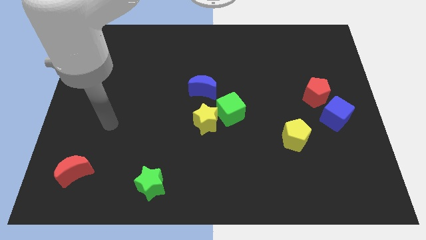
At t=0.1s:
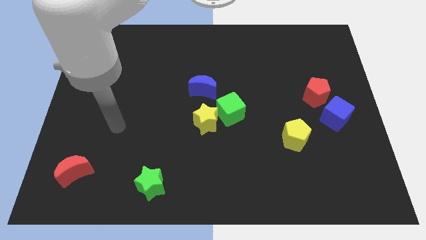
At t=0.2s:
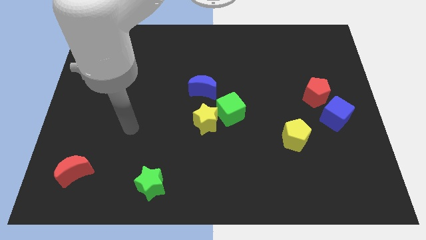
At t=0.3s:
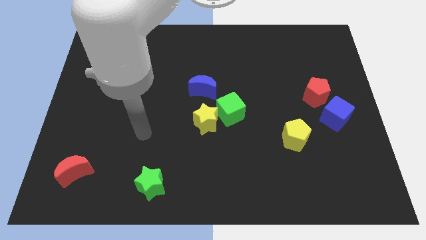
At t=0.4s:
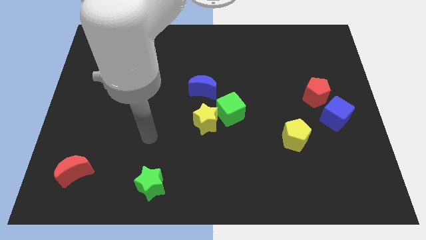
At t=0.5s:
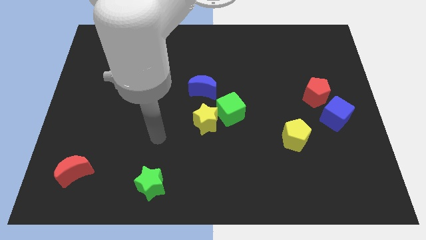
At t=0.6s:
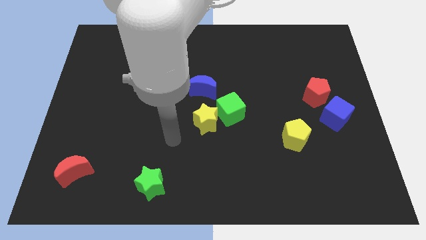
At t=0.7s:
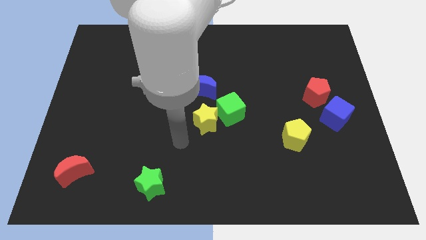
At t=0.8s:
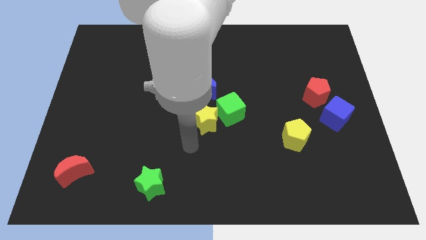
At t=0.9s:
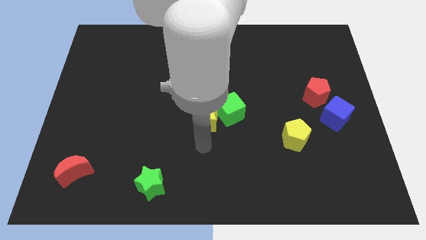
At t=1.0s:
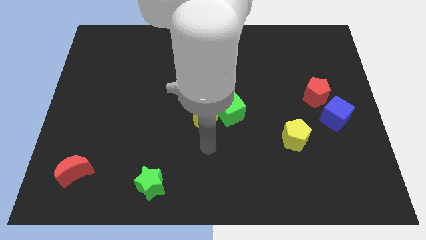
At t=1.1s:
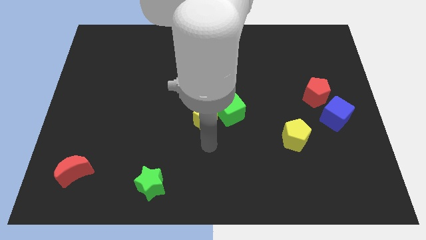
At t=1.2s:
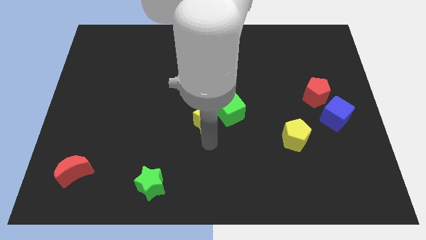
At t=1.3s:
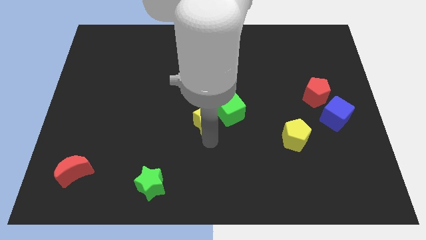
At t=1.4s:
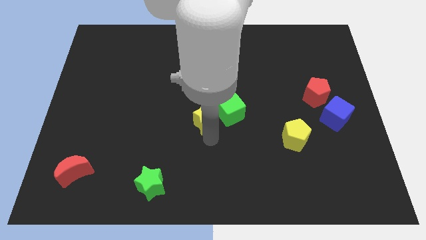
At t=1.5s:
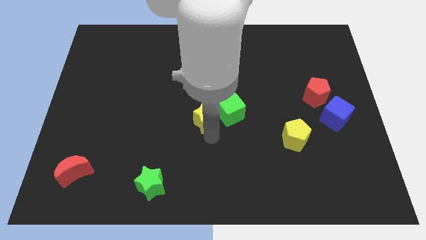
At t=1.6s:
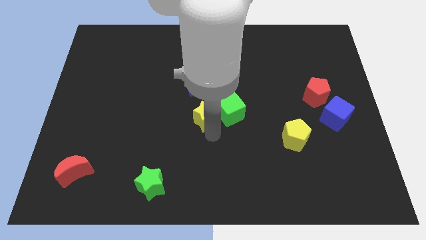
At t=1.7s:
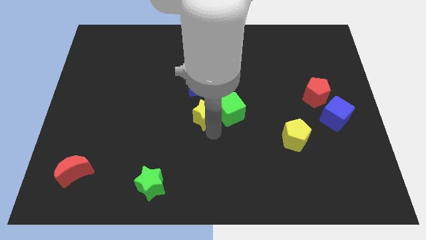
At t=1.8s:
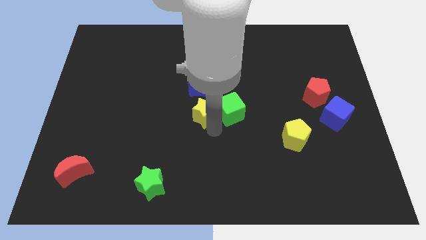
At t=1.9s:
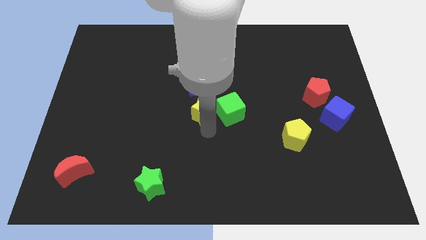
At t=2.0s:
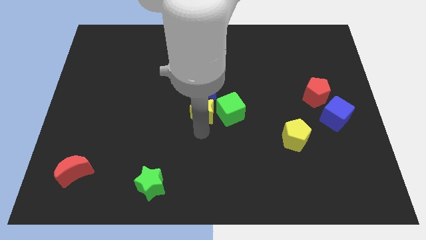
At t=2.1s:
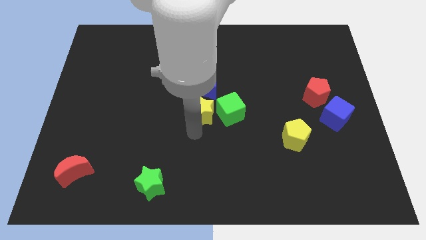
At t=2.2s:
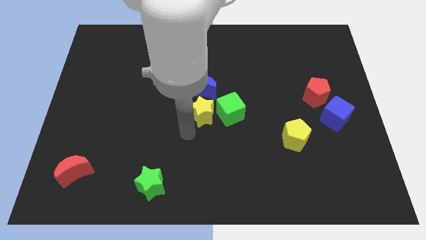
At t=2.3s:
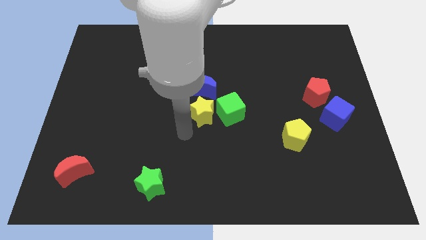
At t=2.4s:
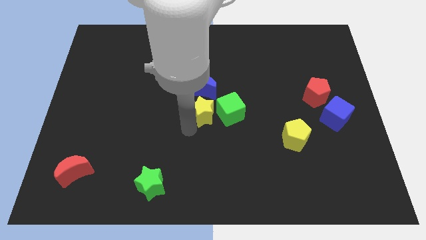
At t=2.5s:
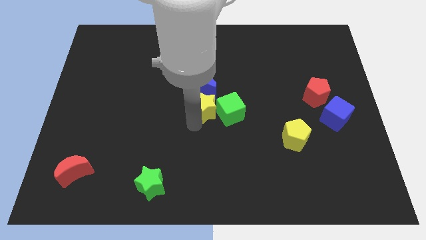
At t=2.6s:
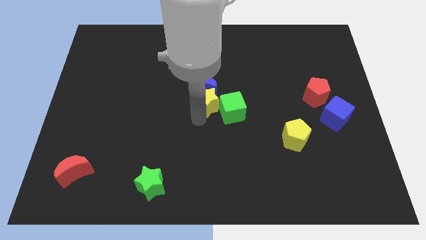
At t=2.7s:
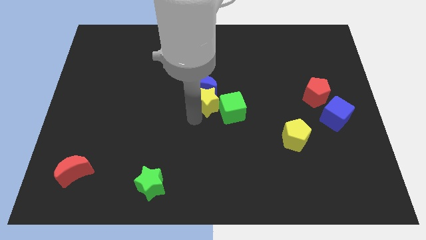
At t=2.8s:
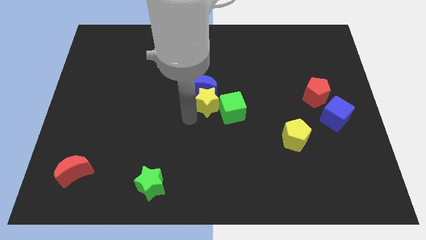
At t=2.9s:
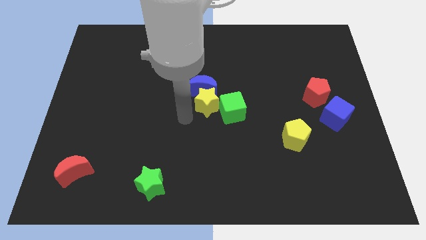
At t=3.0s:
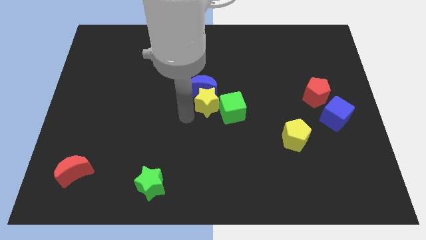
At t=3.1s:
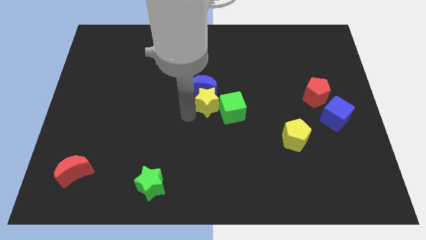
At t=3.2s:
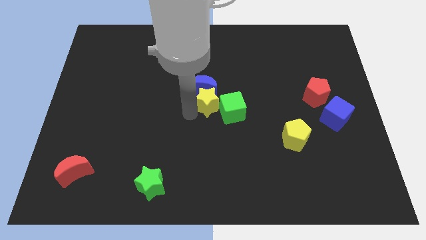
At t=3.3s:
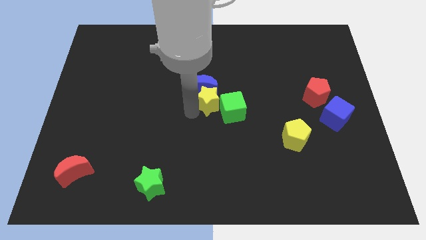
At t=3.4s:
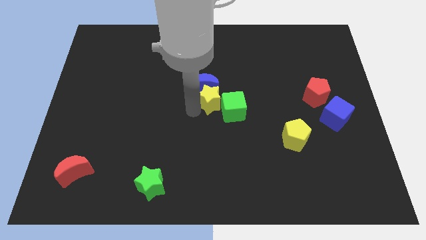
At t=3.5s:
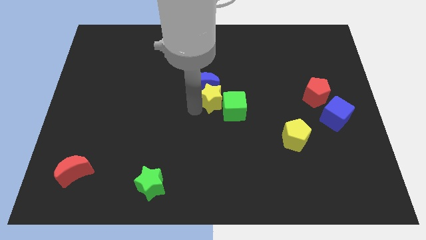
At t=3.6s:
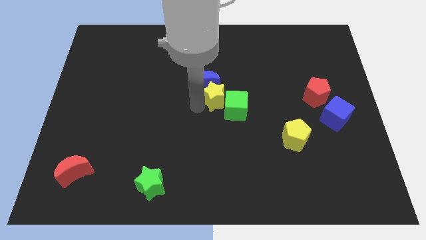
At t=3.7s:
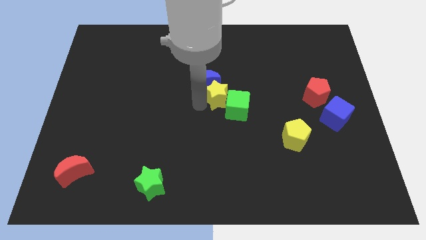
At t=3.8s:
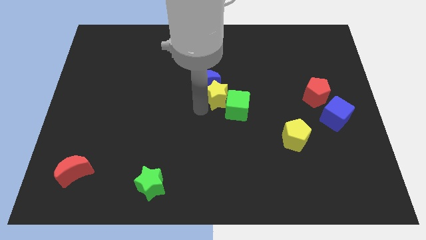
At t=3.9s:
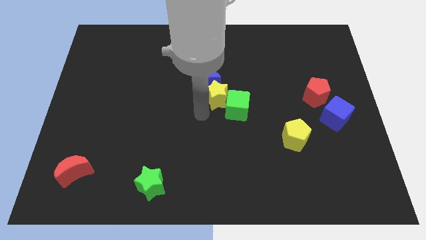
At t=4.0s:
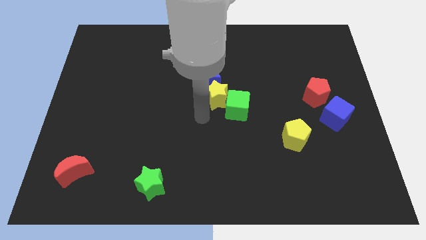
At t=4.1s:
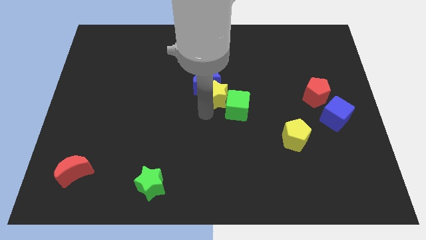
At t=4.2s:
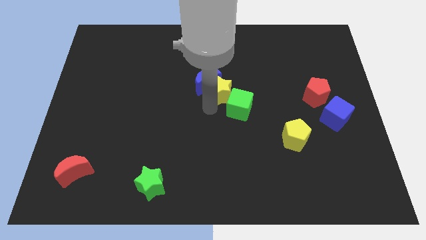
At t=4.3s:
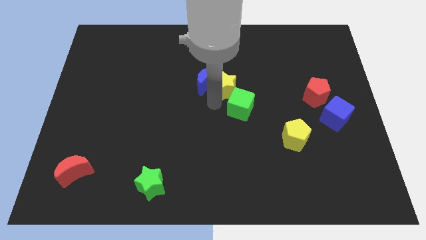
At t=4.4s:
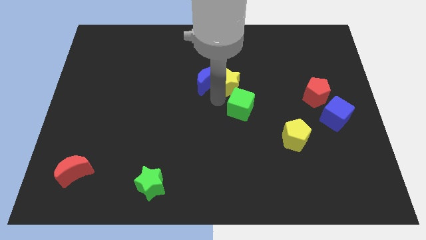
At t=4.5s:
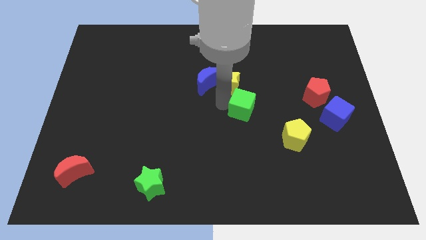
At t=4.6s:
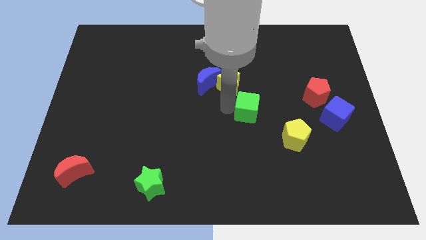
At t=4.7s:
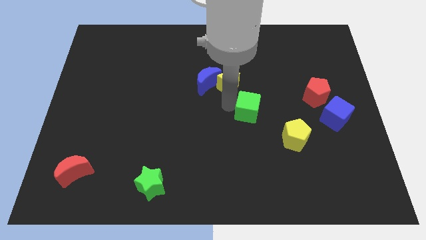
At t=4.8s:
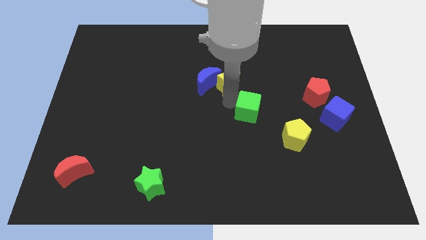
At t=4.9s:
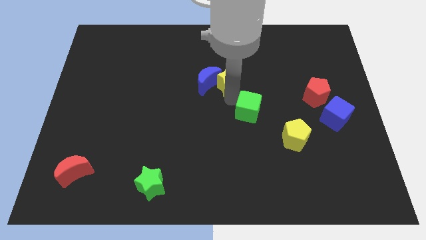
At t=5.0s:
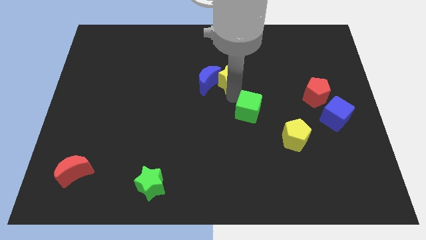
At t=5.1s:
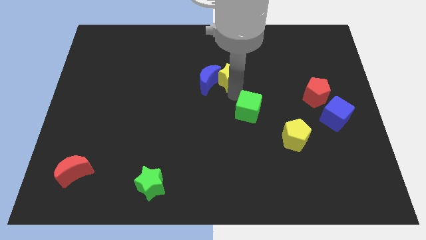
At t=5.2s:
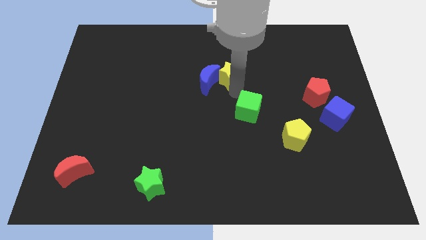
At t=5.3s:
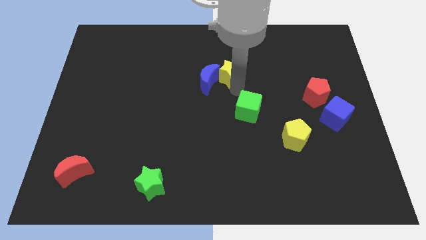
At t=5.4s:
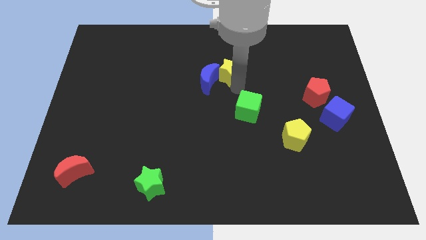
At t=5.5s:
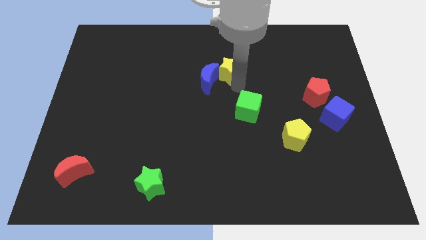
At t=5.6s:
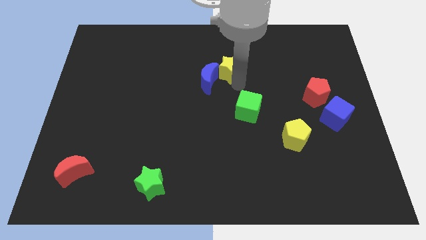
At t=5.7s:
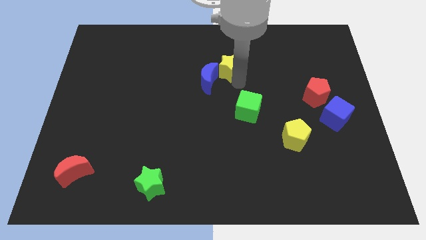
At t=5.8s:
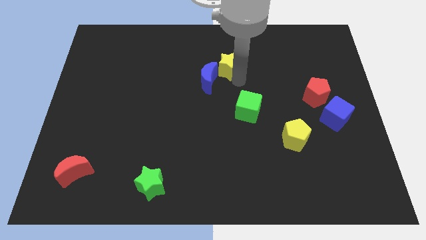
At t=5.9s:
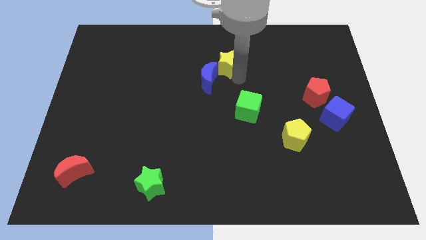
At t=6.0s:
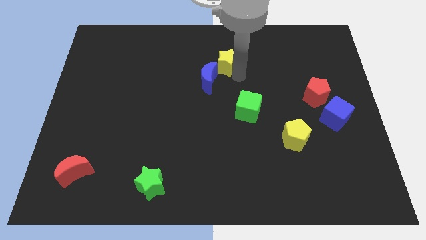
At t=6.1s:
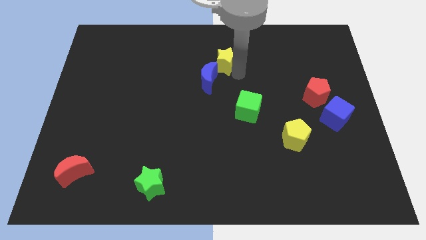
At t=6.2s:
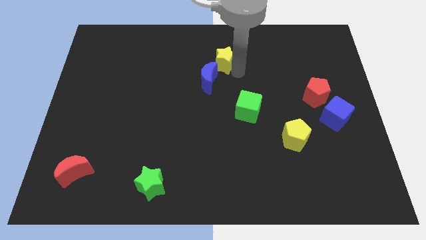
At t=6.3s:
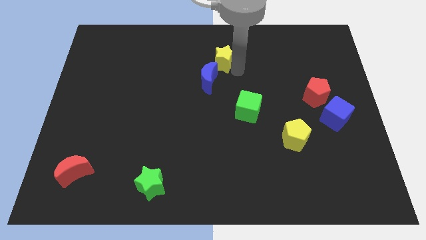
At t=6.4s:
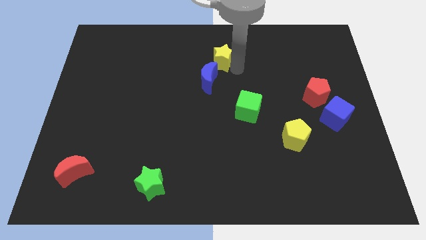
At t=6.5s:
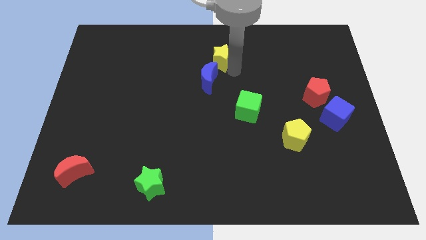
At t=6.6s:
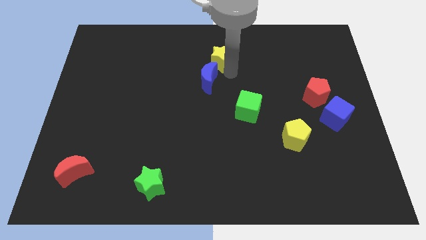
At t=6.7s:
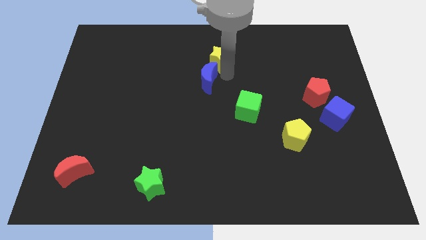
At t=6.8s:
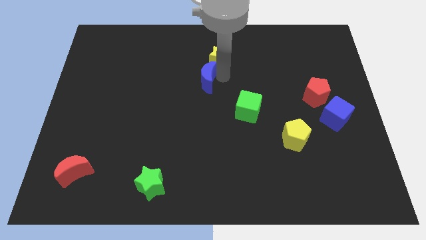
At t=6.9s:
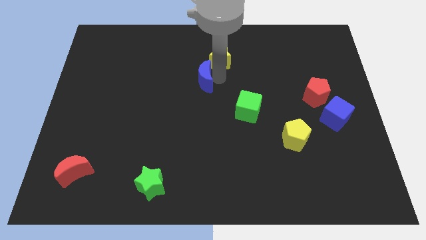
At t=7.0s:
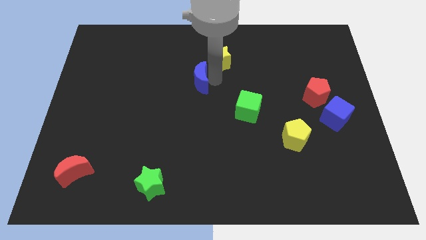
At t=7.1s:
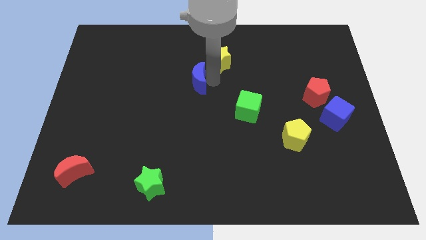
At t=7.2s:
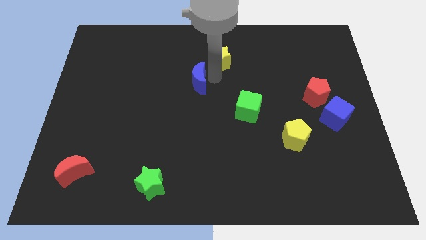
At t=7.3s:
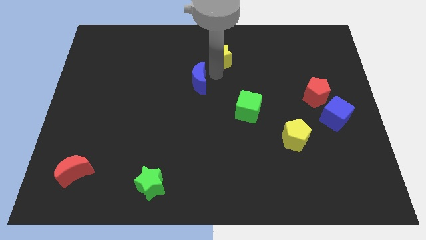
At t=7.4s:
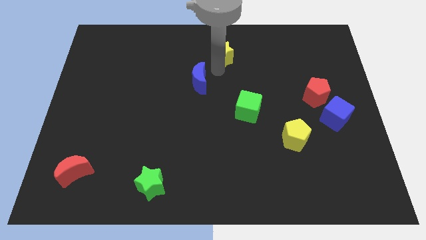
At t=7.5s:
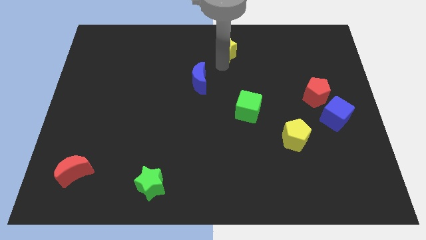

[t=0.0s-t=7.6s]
slide the yellow star to the towards your base
